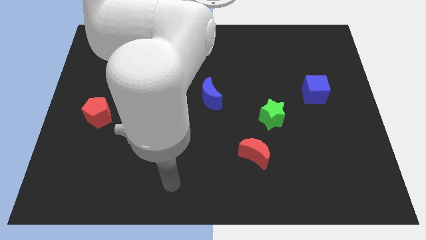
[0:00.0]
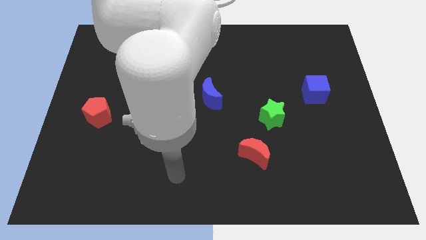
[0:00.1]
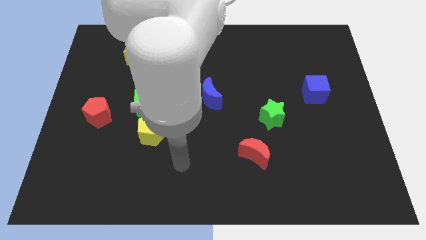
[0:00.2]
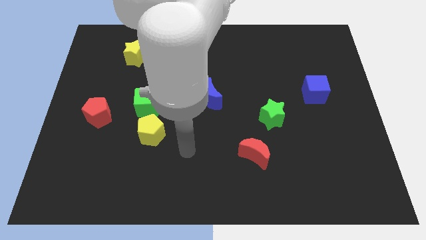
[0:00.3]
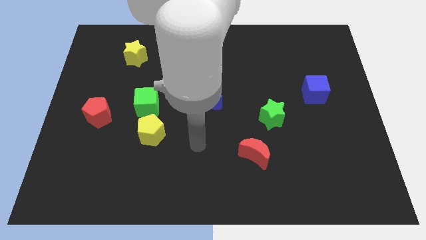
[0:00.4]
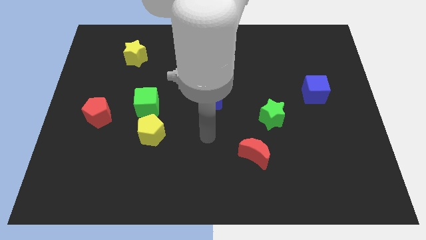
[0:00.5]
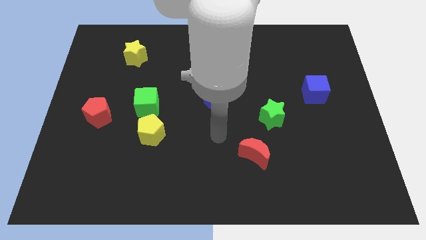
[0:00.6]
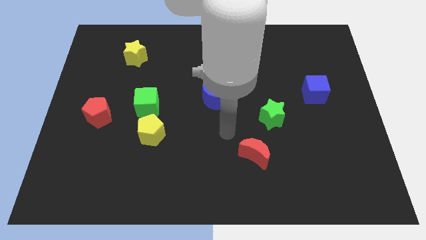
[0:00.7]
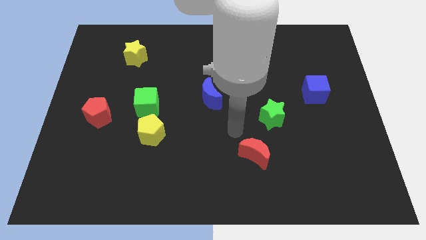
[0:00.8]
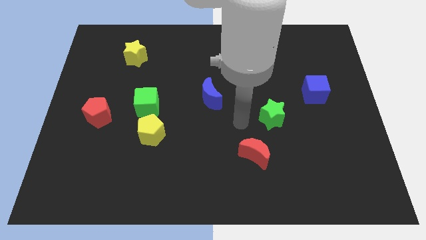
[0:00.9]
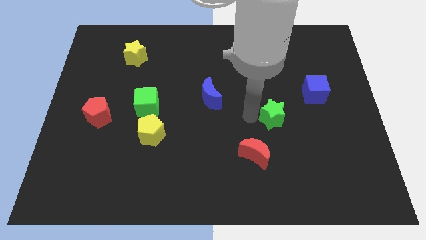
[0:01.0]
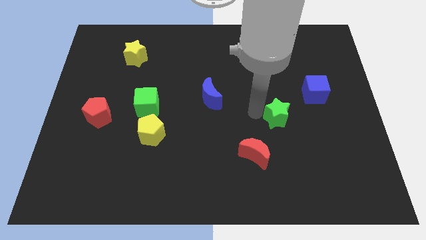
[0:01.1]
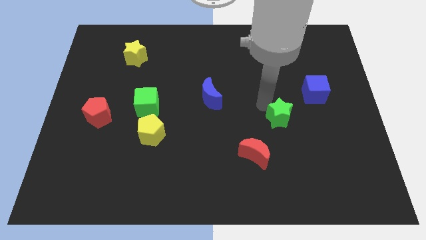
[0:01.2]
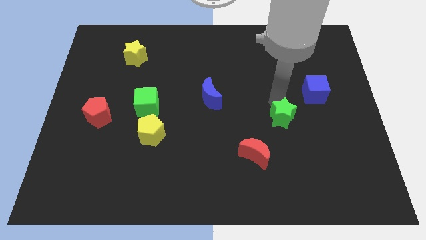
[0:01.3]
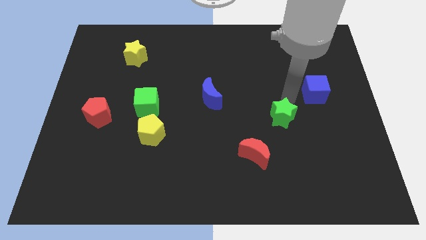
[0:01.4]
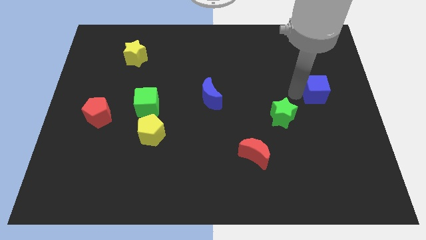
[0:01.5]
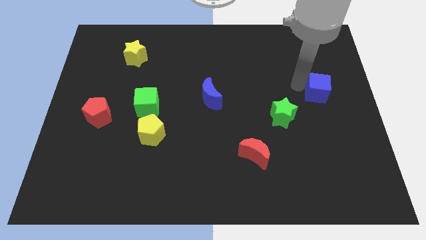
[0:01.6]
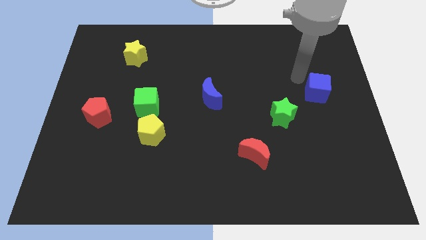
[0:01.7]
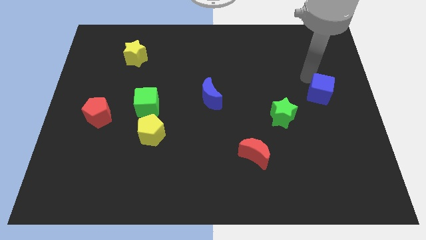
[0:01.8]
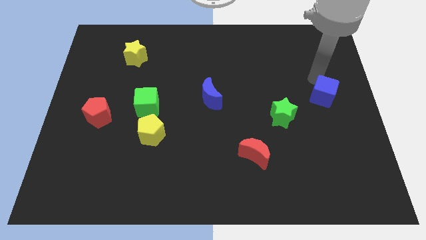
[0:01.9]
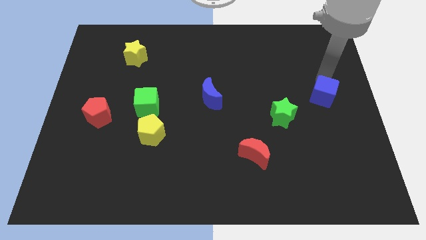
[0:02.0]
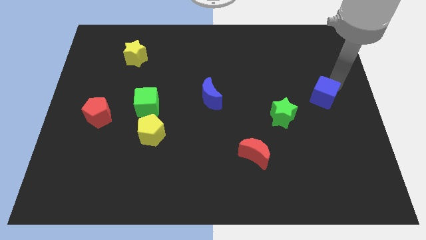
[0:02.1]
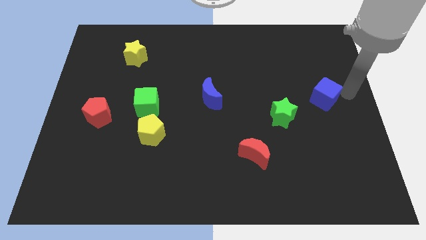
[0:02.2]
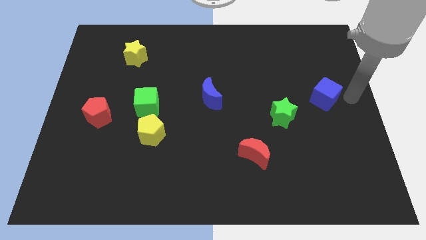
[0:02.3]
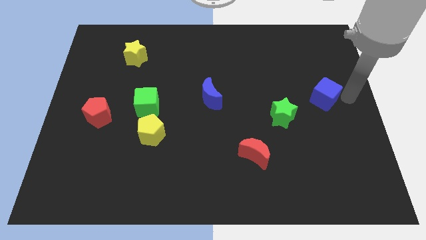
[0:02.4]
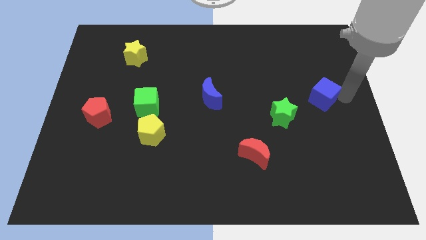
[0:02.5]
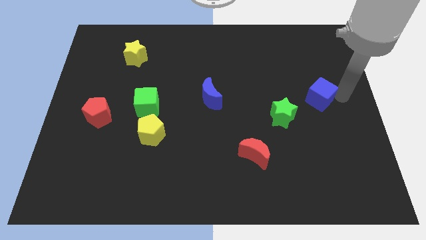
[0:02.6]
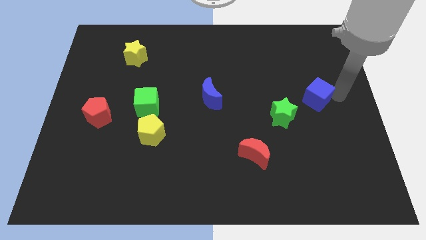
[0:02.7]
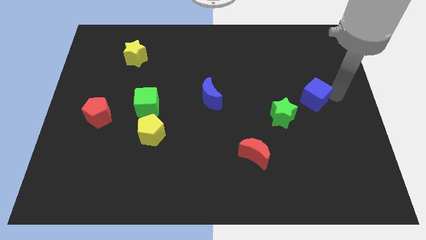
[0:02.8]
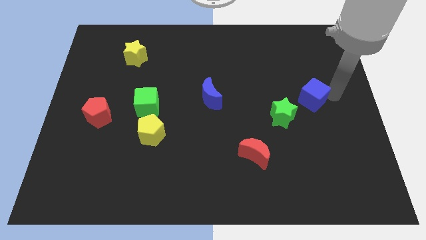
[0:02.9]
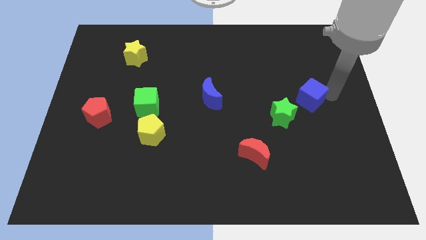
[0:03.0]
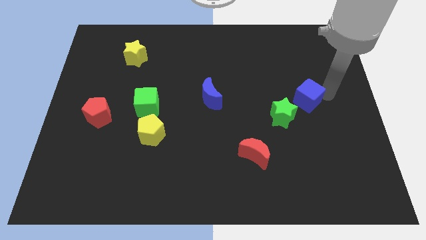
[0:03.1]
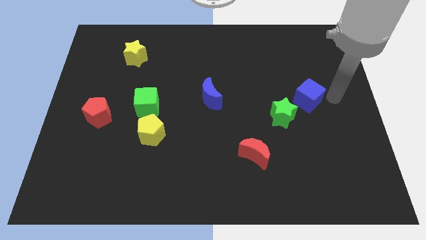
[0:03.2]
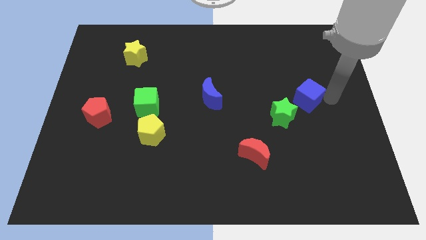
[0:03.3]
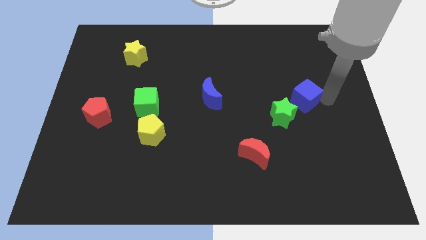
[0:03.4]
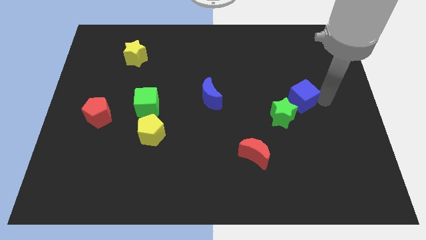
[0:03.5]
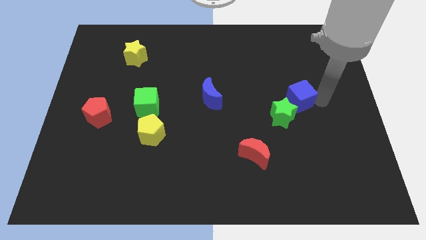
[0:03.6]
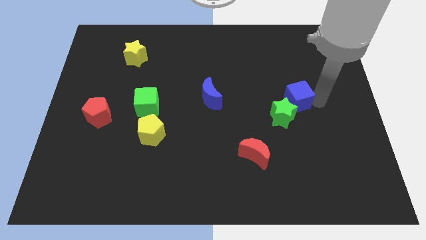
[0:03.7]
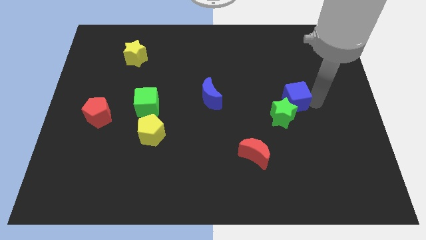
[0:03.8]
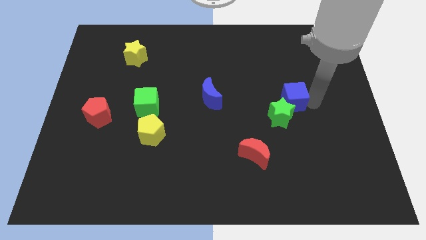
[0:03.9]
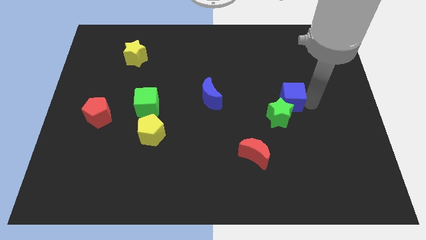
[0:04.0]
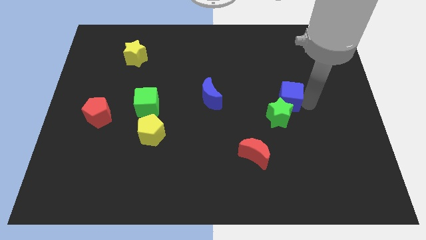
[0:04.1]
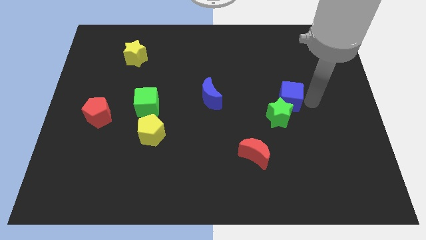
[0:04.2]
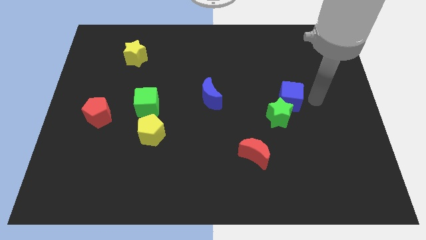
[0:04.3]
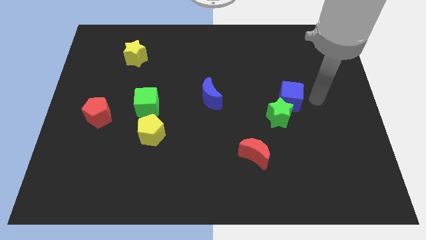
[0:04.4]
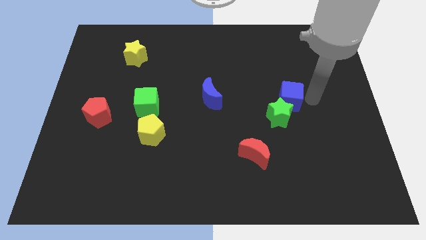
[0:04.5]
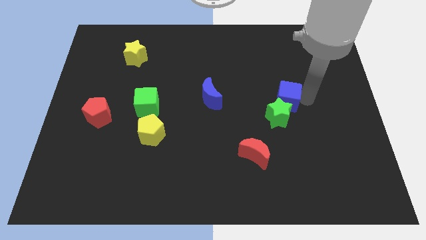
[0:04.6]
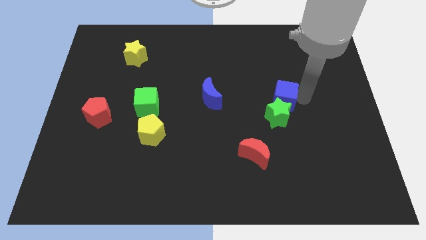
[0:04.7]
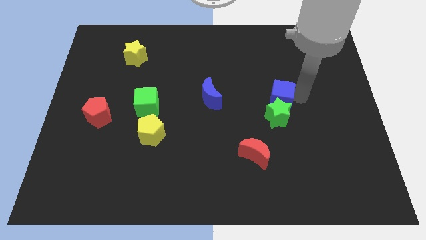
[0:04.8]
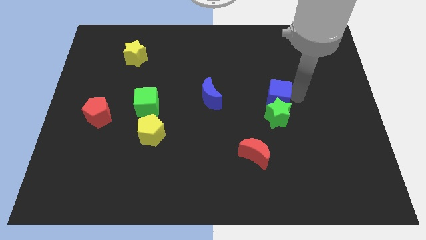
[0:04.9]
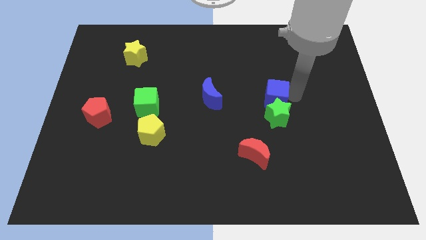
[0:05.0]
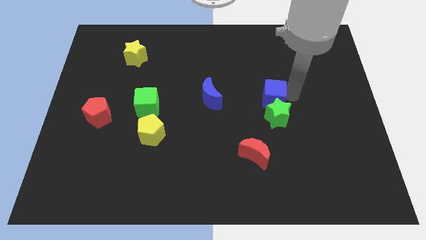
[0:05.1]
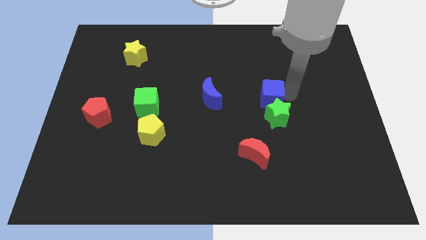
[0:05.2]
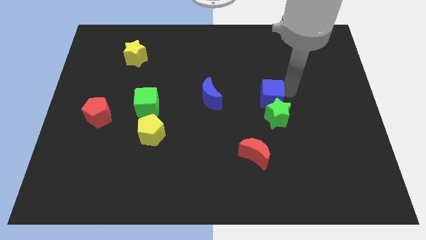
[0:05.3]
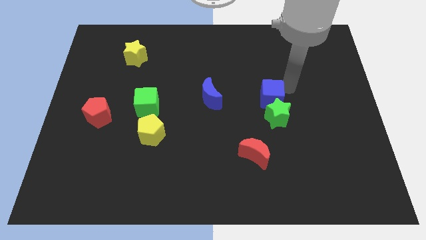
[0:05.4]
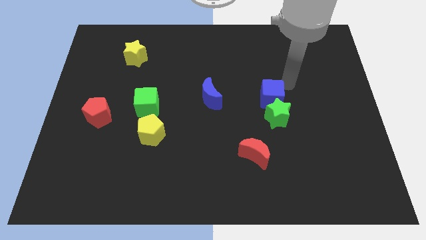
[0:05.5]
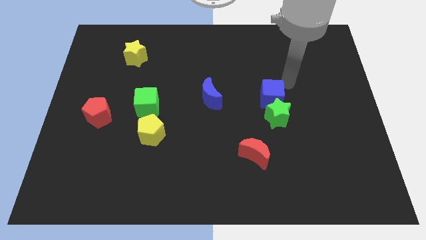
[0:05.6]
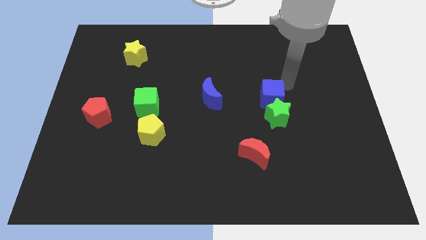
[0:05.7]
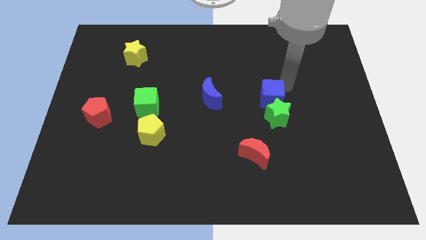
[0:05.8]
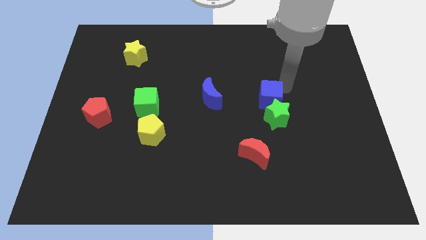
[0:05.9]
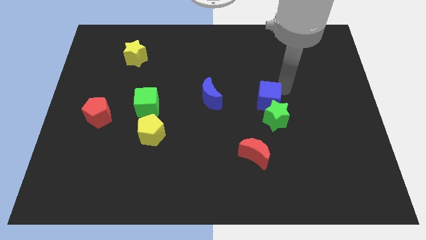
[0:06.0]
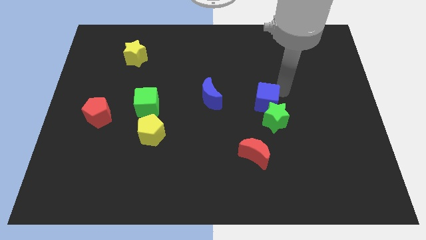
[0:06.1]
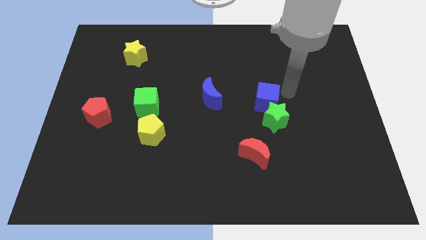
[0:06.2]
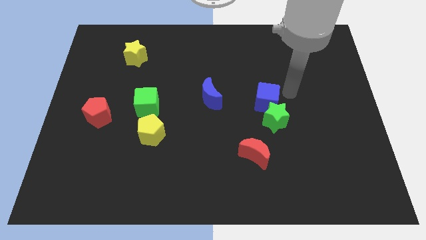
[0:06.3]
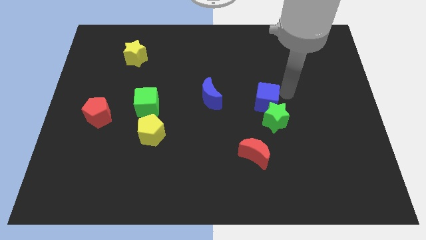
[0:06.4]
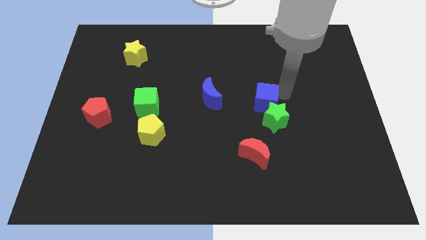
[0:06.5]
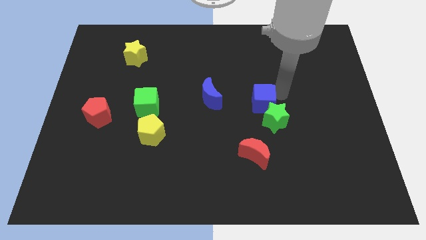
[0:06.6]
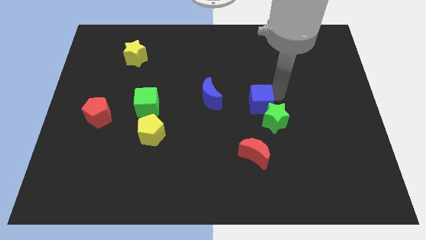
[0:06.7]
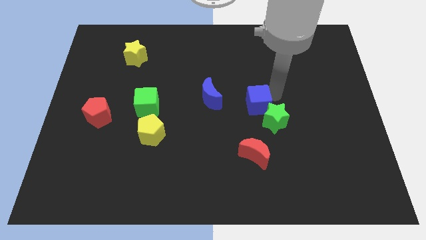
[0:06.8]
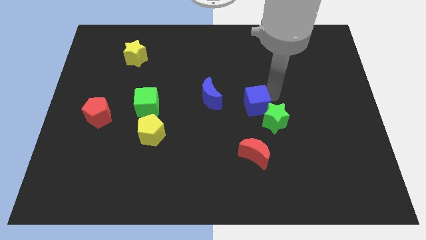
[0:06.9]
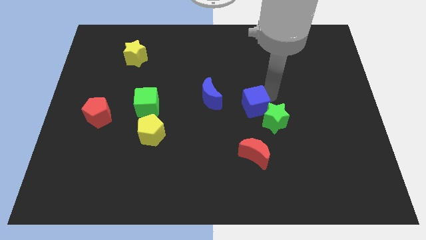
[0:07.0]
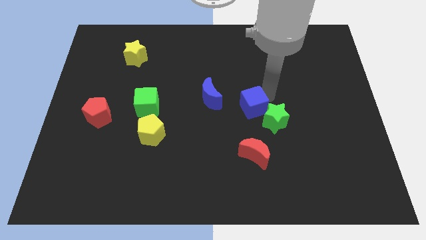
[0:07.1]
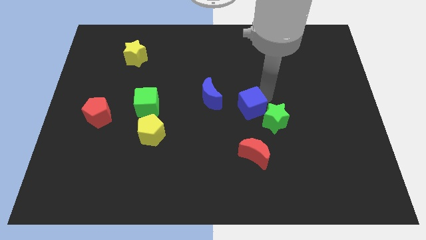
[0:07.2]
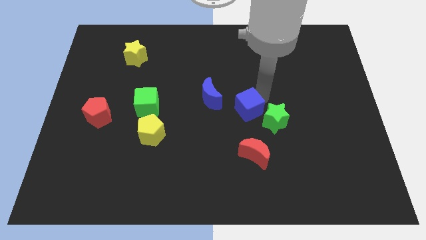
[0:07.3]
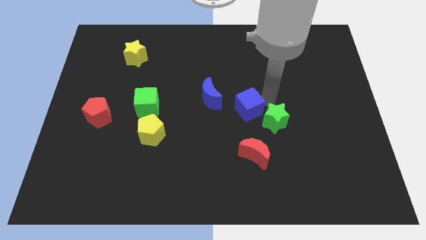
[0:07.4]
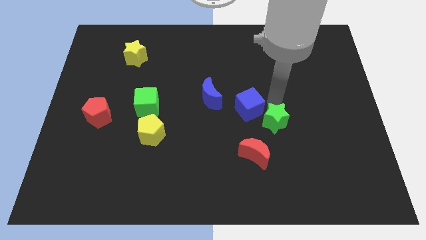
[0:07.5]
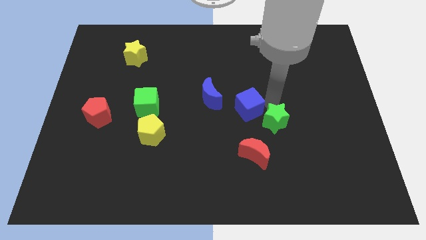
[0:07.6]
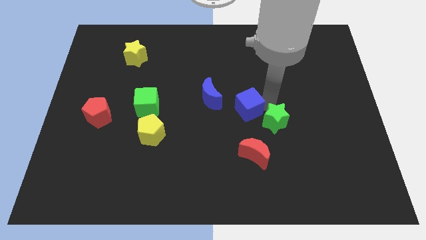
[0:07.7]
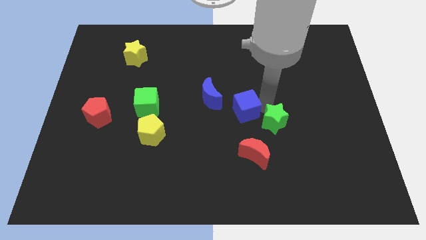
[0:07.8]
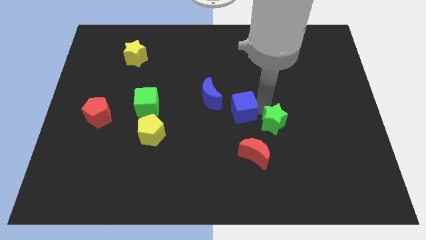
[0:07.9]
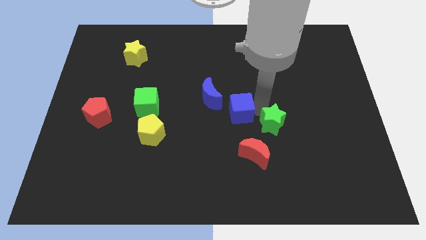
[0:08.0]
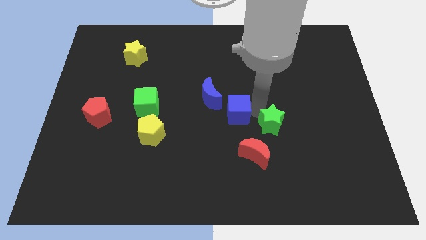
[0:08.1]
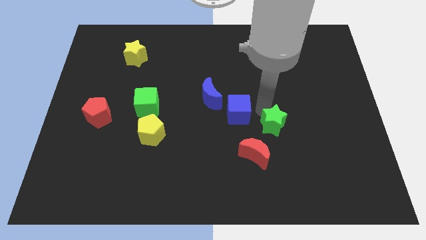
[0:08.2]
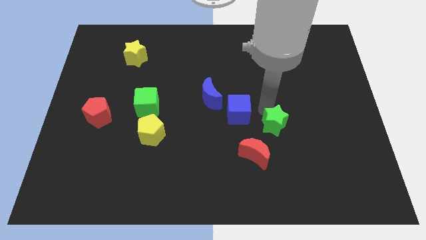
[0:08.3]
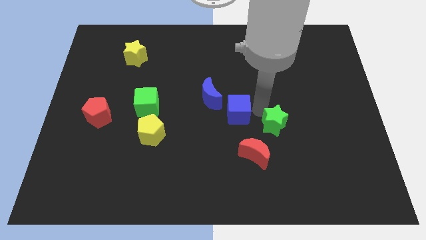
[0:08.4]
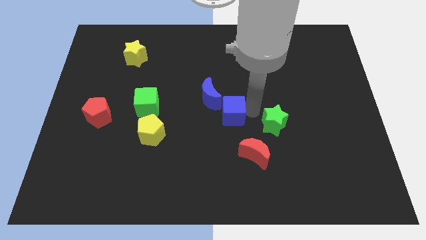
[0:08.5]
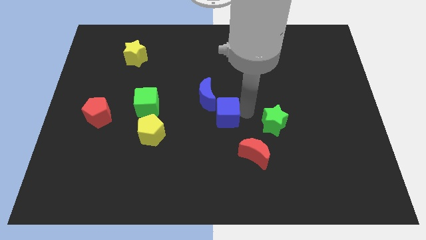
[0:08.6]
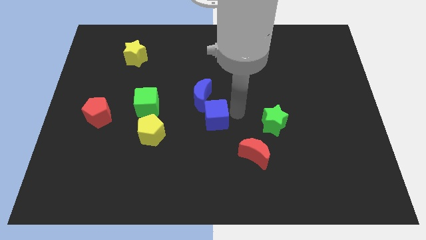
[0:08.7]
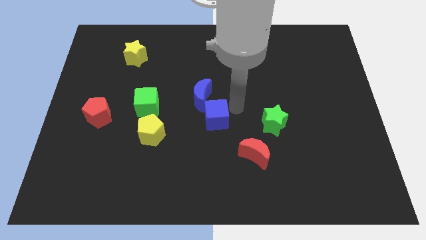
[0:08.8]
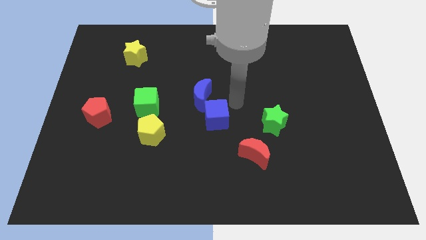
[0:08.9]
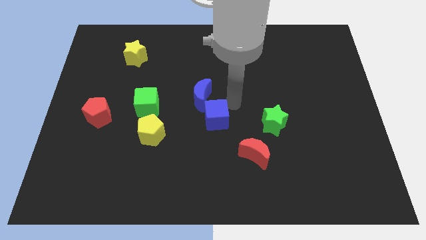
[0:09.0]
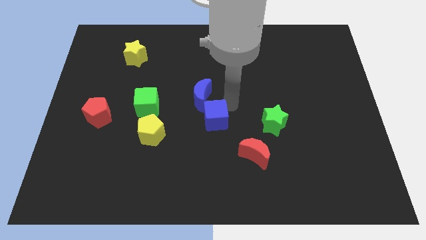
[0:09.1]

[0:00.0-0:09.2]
push the blue cube to the right of the yellow pentagon
